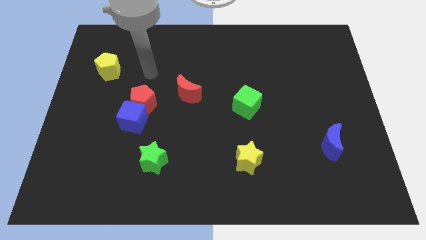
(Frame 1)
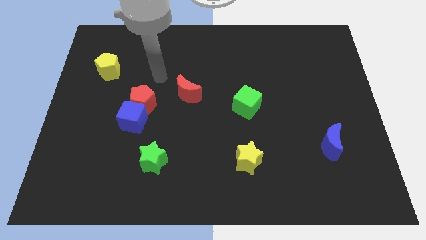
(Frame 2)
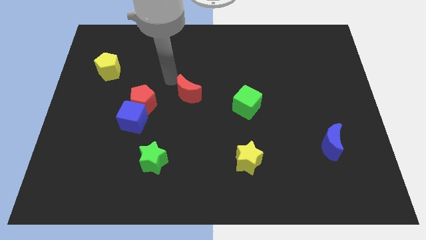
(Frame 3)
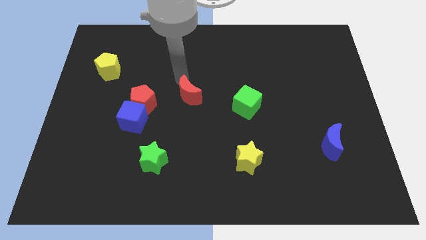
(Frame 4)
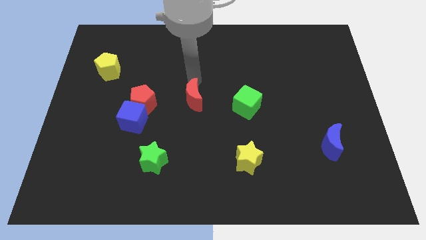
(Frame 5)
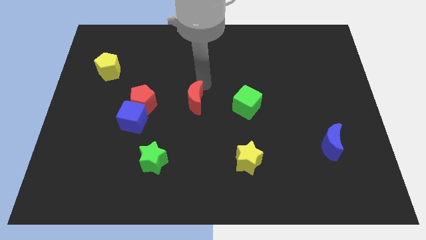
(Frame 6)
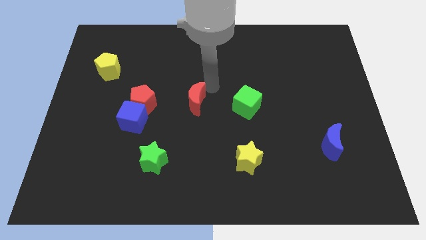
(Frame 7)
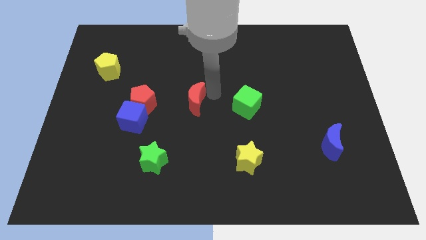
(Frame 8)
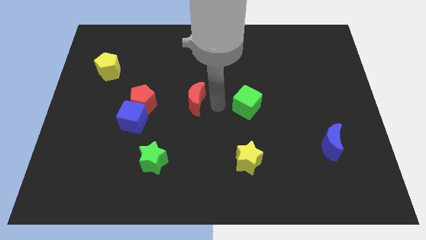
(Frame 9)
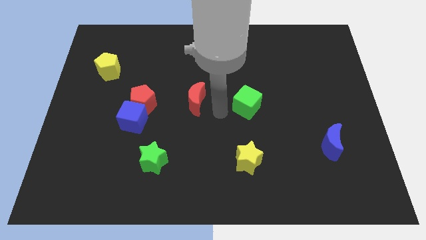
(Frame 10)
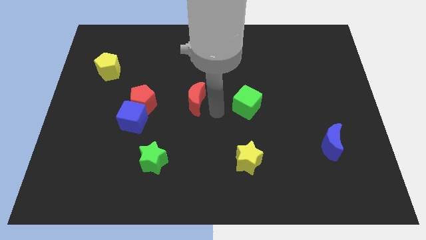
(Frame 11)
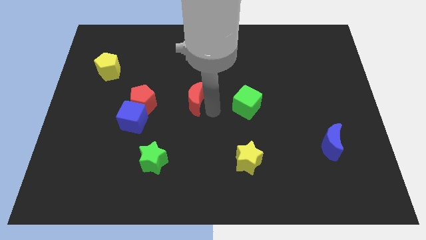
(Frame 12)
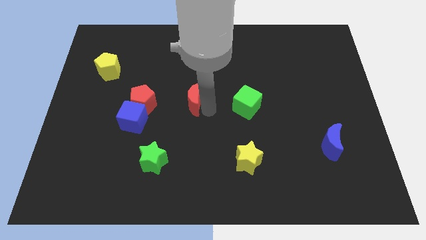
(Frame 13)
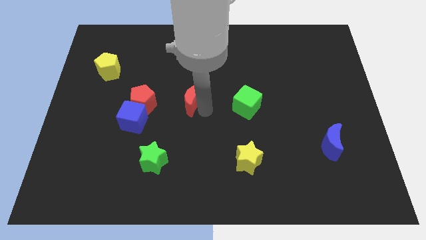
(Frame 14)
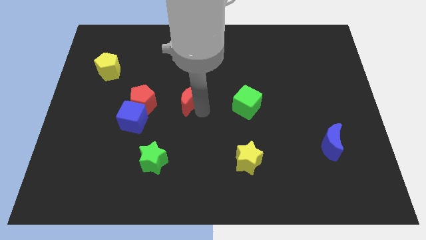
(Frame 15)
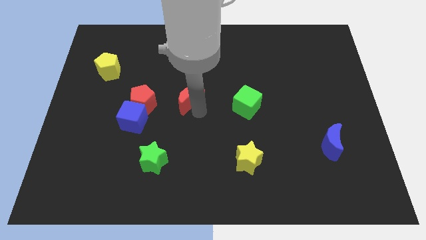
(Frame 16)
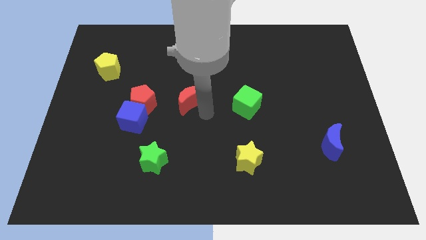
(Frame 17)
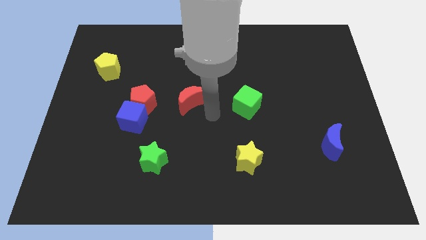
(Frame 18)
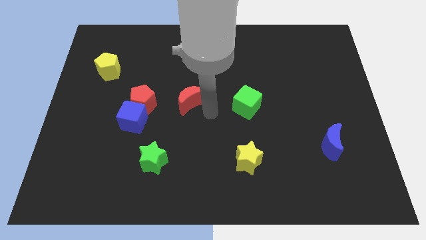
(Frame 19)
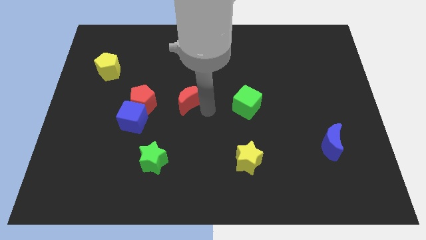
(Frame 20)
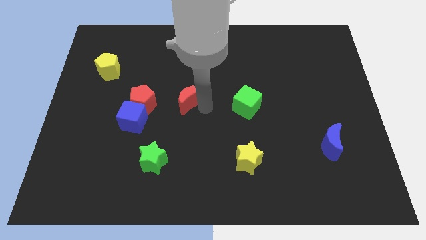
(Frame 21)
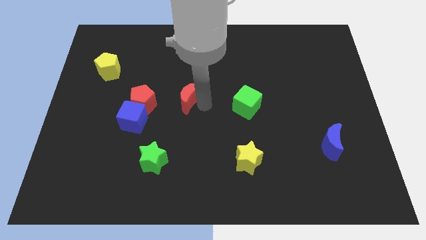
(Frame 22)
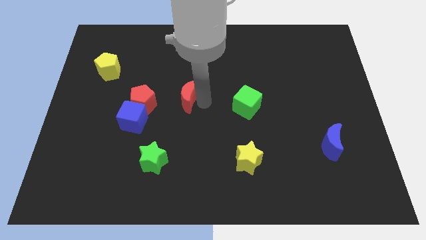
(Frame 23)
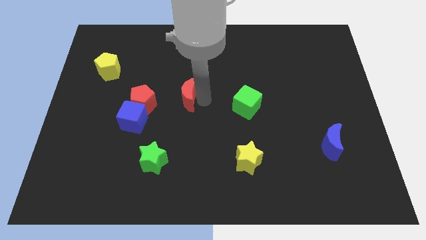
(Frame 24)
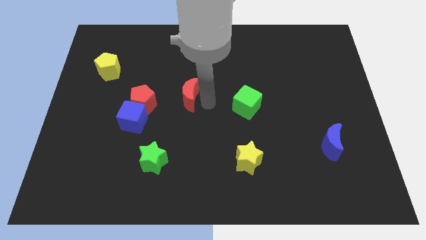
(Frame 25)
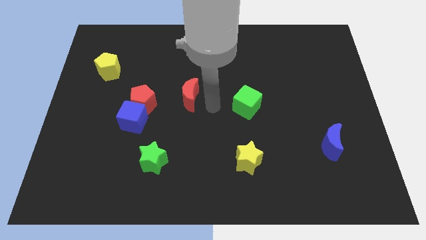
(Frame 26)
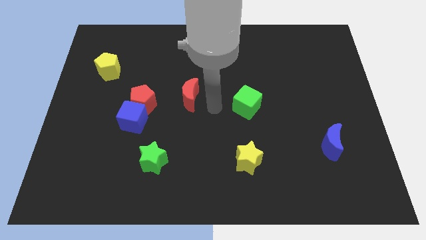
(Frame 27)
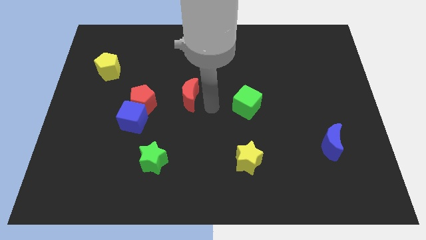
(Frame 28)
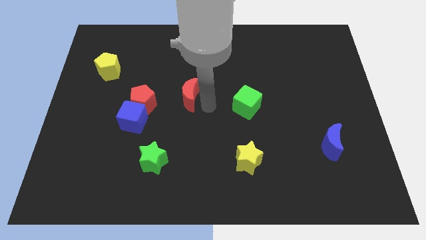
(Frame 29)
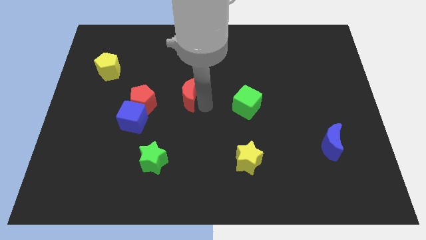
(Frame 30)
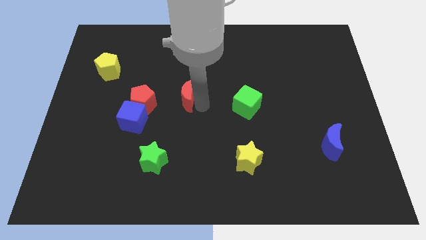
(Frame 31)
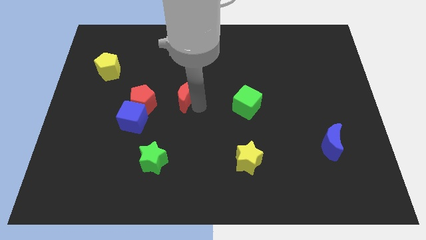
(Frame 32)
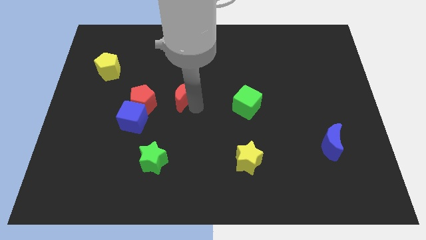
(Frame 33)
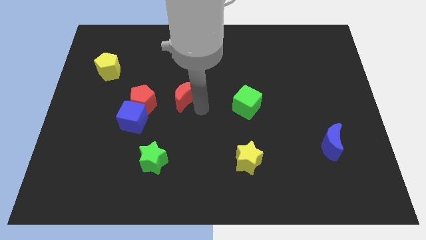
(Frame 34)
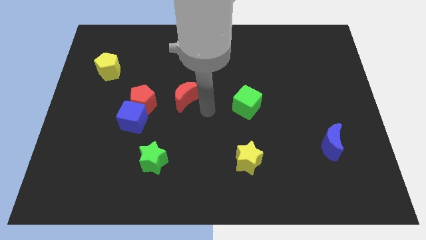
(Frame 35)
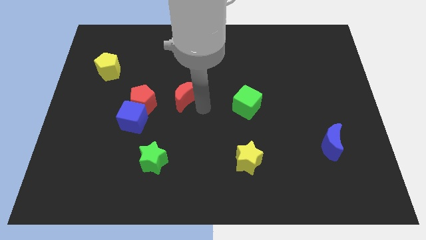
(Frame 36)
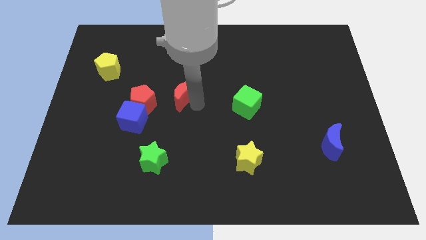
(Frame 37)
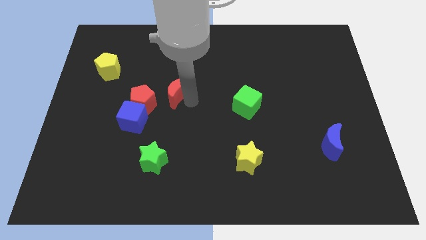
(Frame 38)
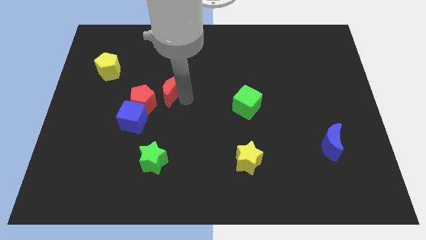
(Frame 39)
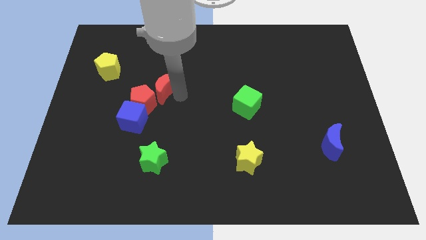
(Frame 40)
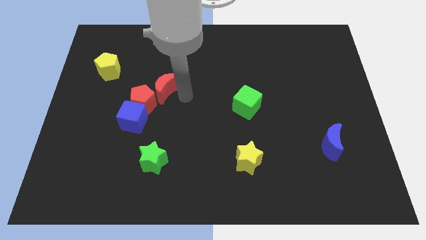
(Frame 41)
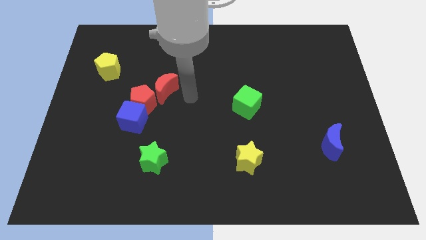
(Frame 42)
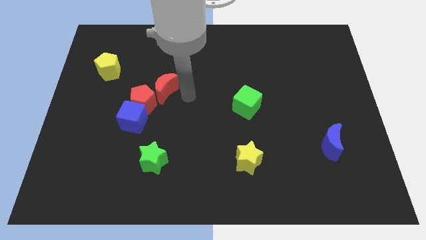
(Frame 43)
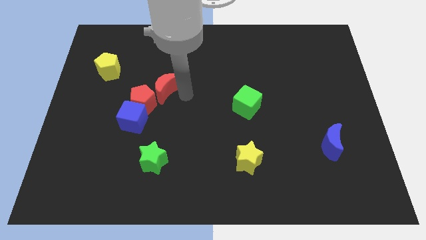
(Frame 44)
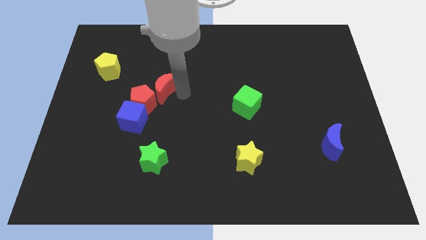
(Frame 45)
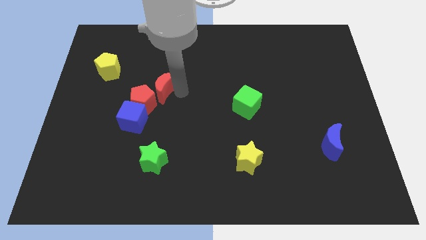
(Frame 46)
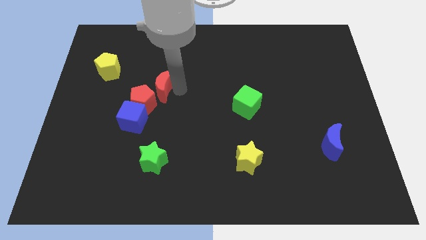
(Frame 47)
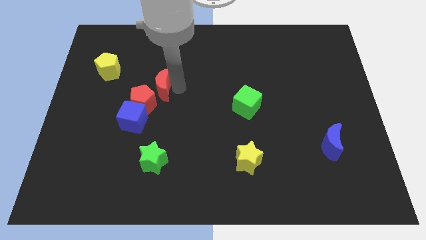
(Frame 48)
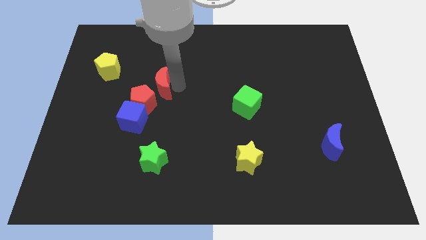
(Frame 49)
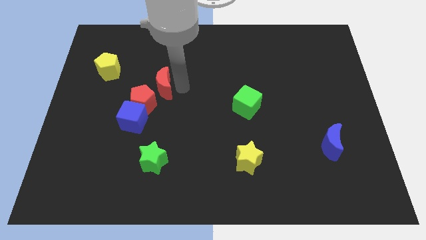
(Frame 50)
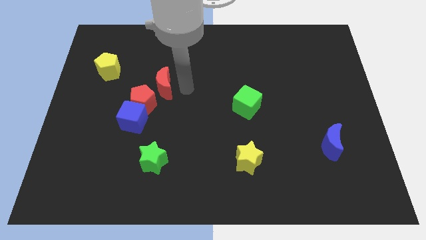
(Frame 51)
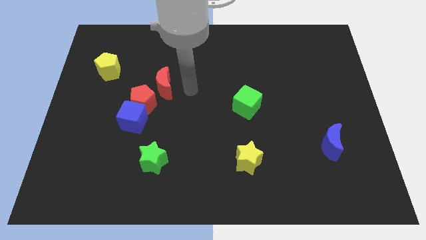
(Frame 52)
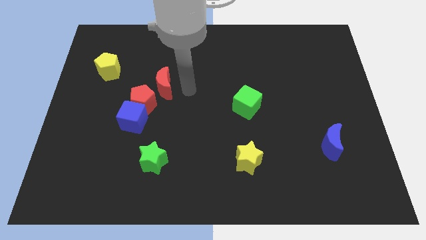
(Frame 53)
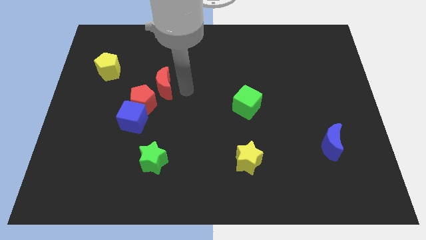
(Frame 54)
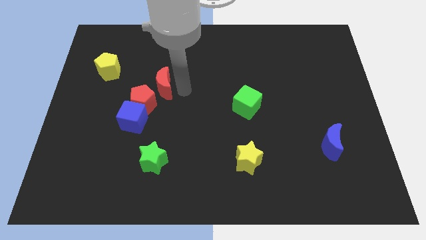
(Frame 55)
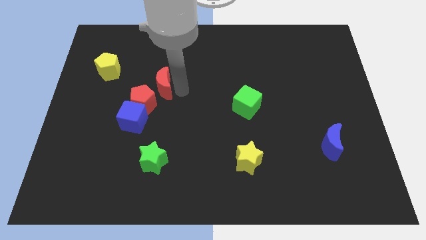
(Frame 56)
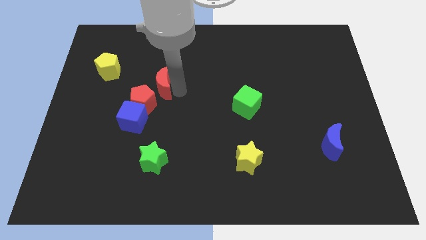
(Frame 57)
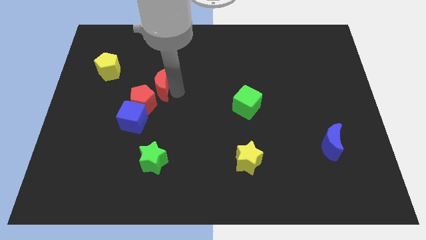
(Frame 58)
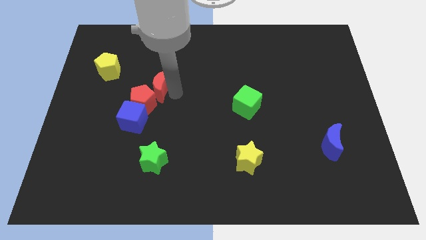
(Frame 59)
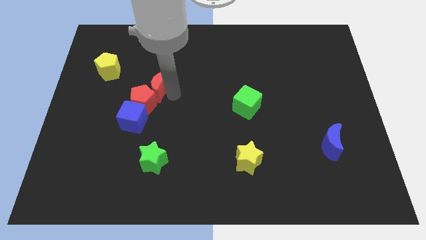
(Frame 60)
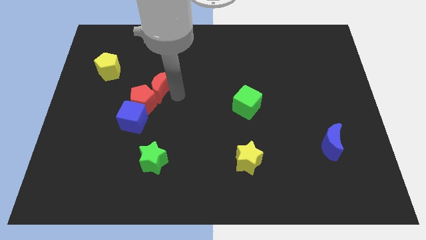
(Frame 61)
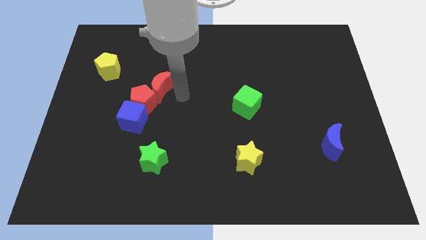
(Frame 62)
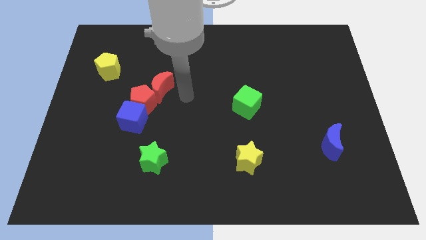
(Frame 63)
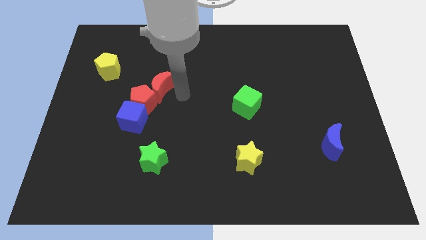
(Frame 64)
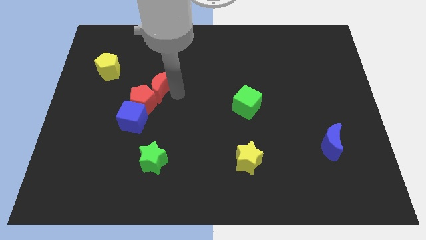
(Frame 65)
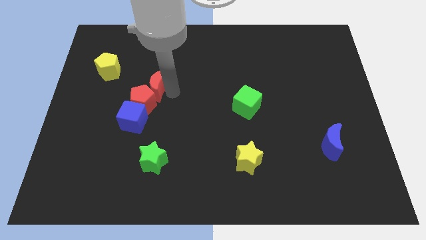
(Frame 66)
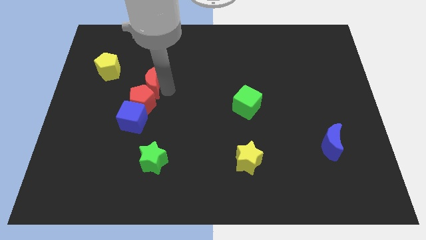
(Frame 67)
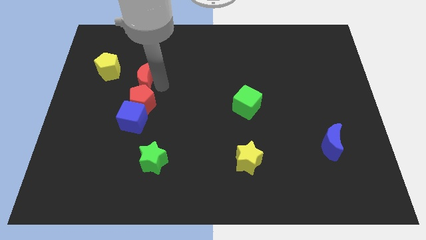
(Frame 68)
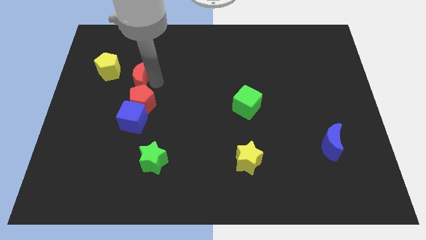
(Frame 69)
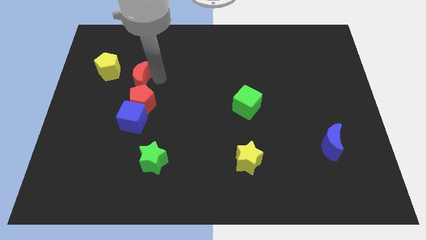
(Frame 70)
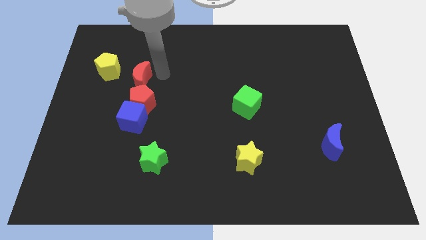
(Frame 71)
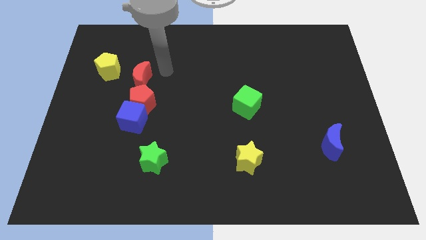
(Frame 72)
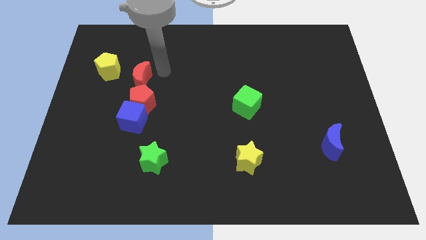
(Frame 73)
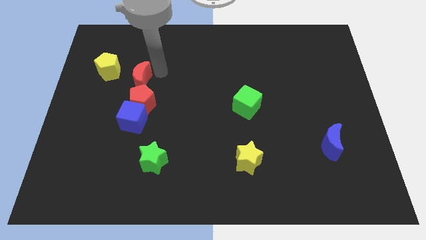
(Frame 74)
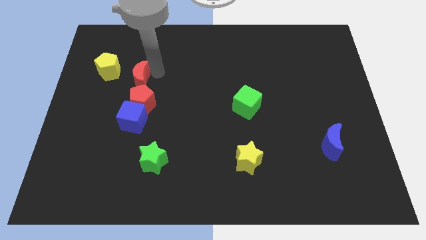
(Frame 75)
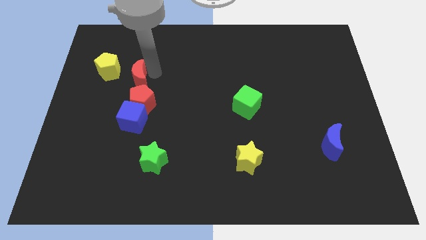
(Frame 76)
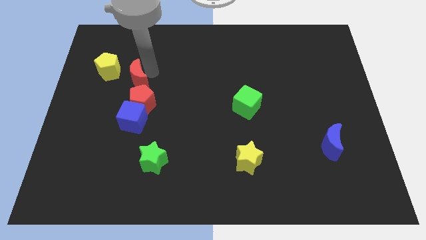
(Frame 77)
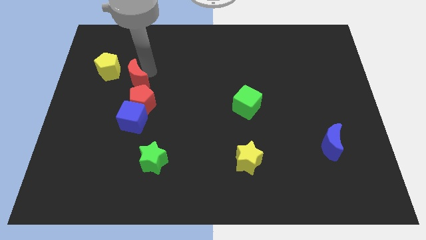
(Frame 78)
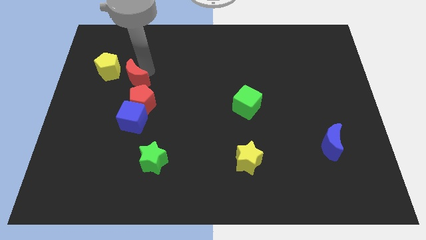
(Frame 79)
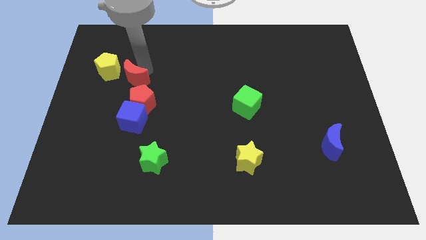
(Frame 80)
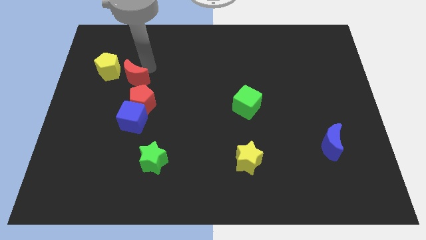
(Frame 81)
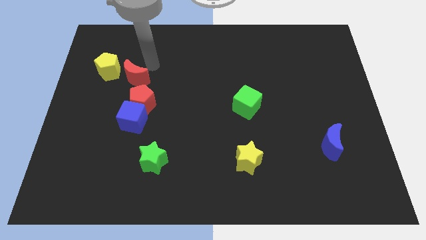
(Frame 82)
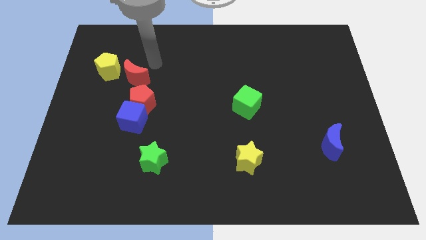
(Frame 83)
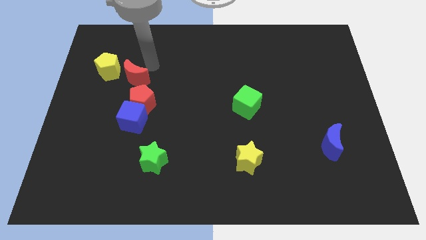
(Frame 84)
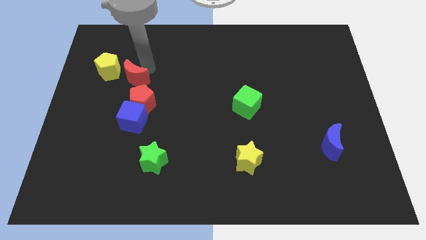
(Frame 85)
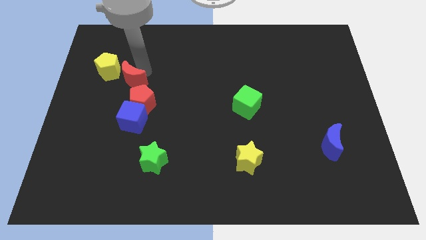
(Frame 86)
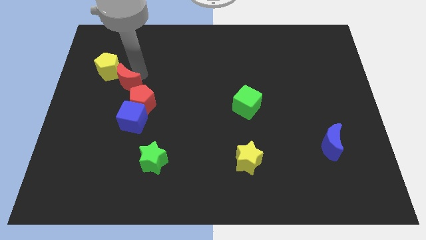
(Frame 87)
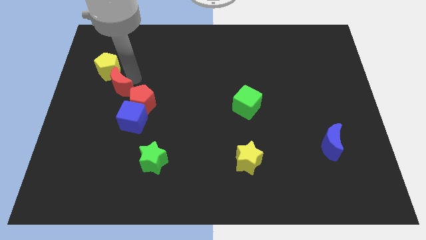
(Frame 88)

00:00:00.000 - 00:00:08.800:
move the red moon to the bottom of the yellow pentagon
